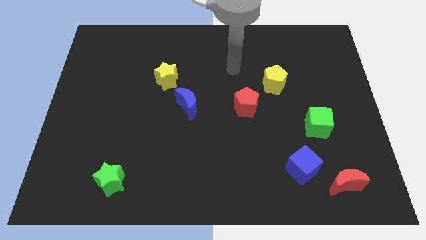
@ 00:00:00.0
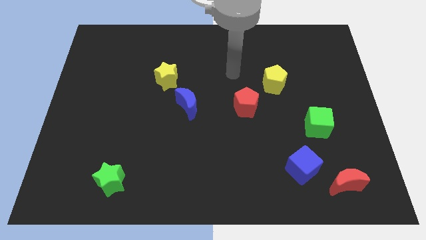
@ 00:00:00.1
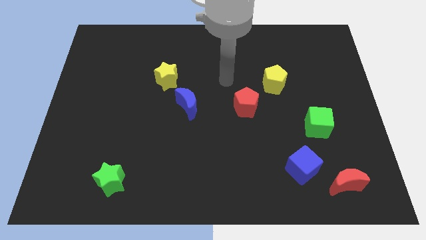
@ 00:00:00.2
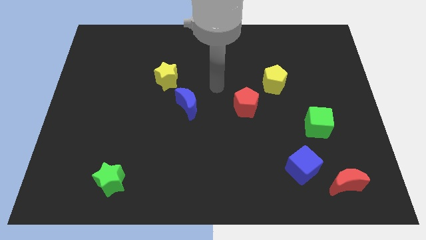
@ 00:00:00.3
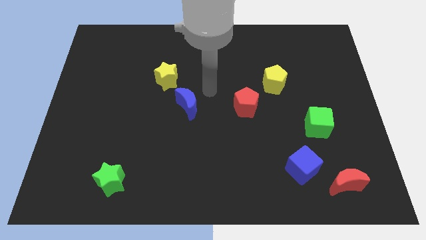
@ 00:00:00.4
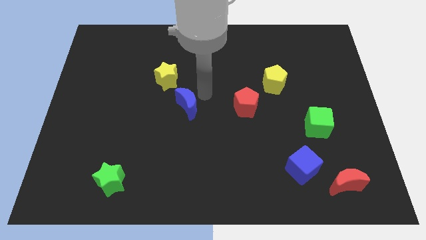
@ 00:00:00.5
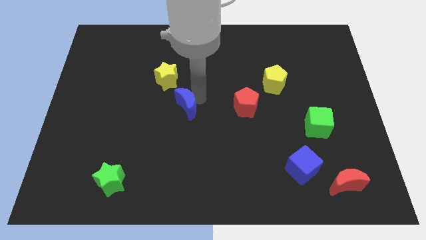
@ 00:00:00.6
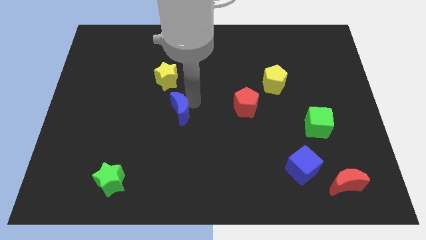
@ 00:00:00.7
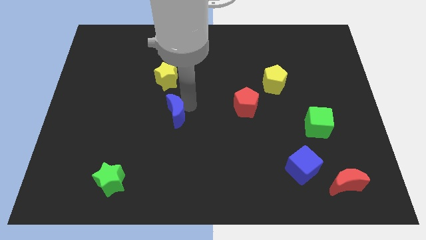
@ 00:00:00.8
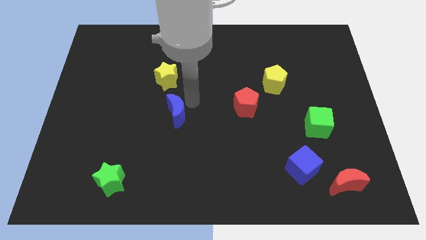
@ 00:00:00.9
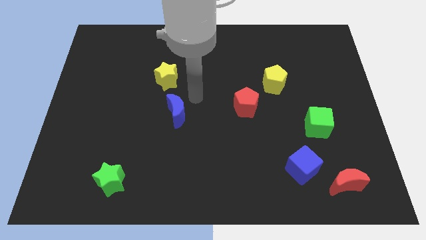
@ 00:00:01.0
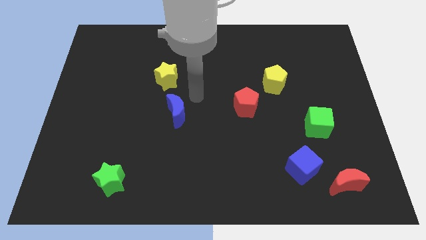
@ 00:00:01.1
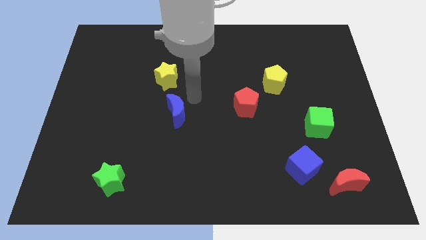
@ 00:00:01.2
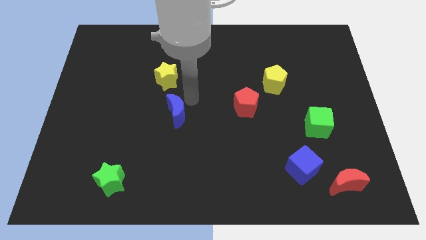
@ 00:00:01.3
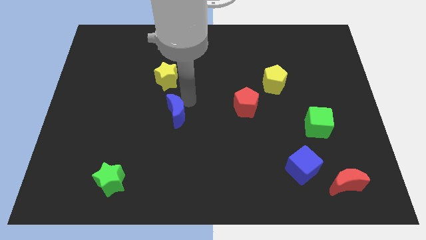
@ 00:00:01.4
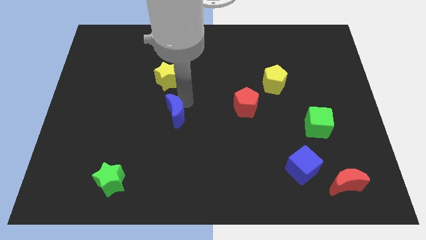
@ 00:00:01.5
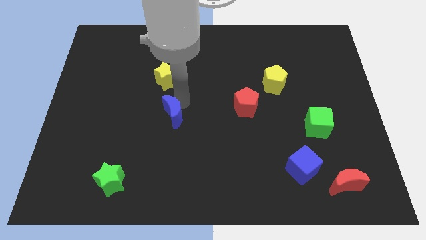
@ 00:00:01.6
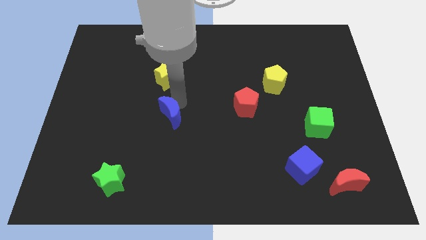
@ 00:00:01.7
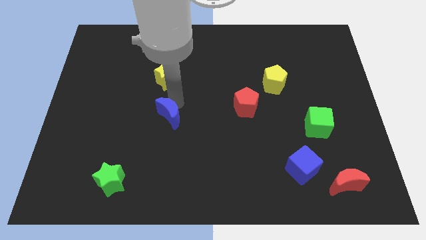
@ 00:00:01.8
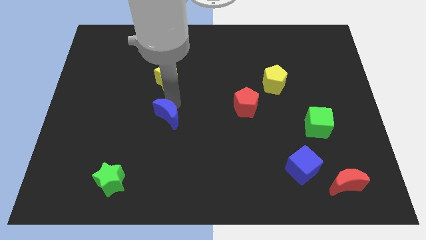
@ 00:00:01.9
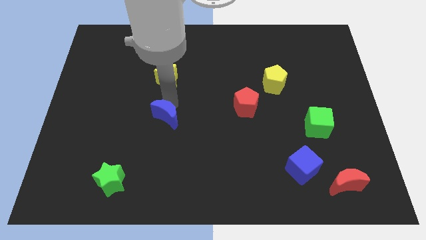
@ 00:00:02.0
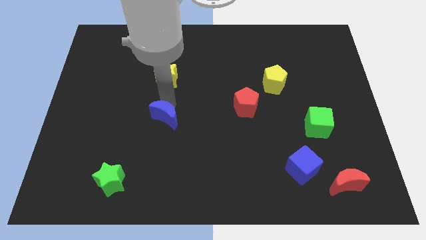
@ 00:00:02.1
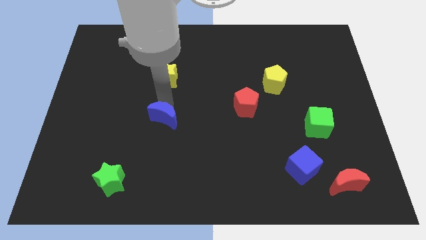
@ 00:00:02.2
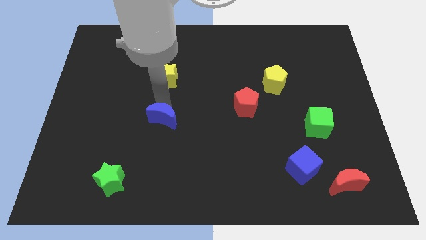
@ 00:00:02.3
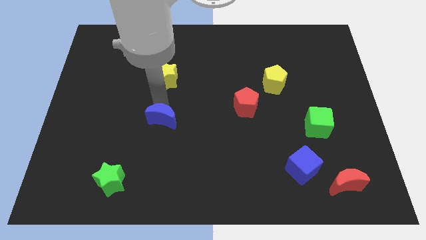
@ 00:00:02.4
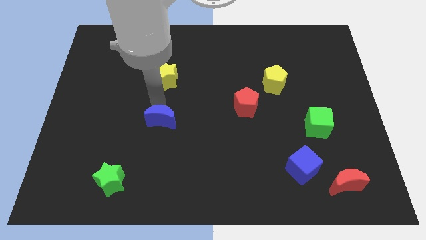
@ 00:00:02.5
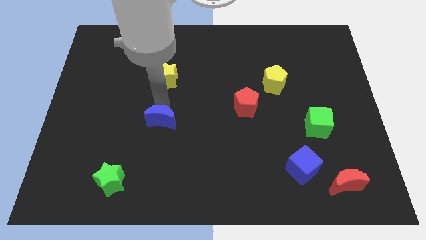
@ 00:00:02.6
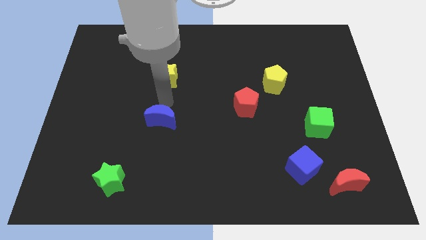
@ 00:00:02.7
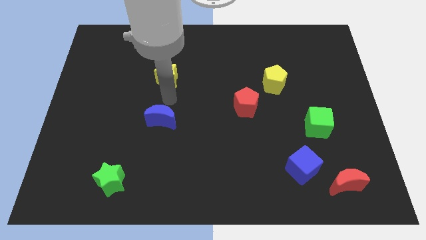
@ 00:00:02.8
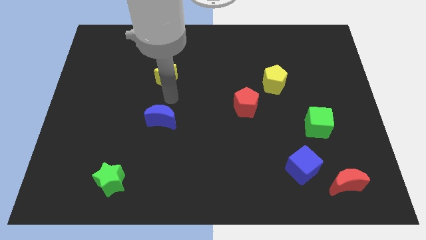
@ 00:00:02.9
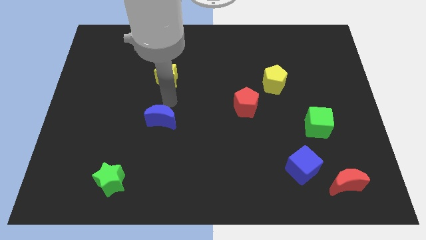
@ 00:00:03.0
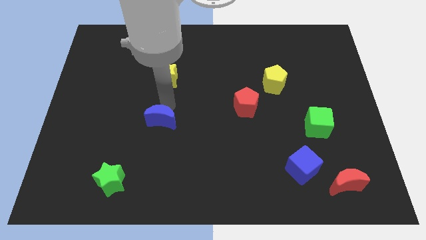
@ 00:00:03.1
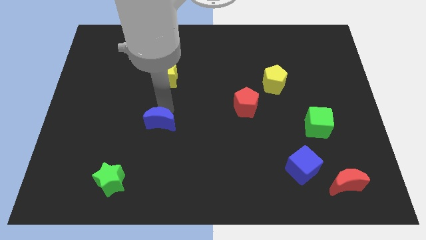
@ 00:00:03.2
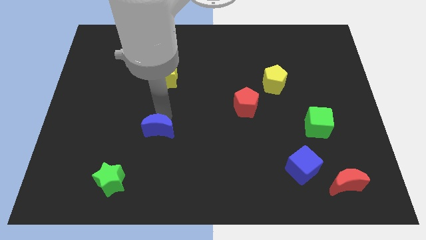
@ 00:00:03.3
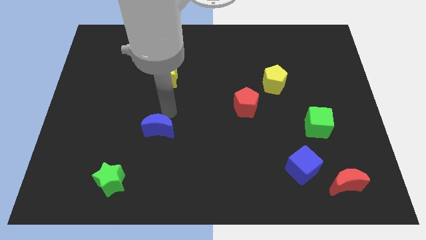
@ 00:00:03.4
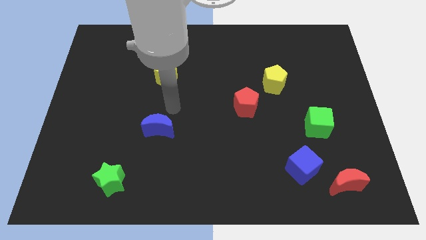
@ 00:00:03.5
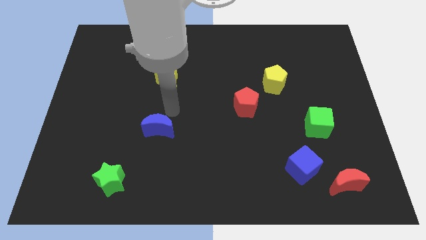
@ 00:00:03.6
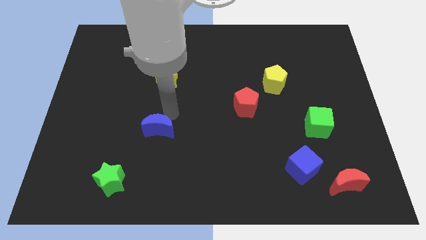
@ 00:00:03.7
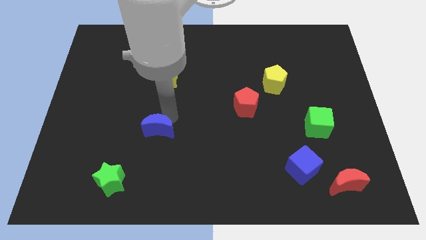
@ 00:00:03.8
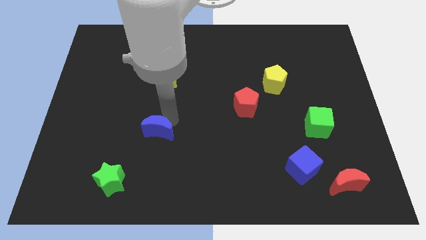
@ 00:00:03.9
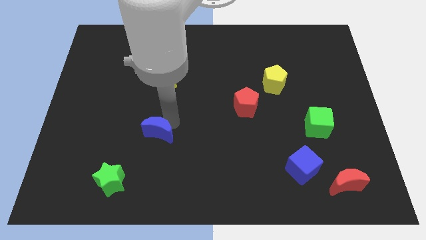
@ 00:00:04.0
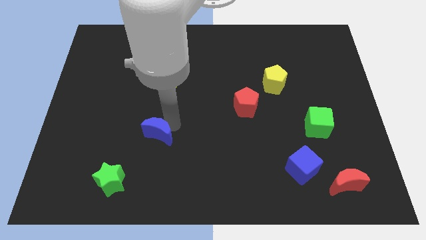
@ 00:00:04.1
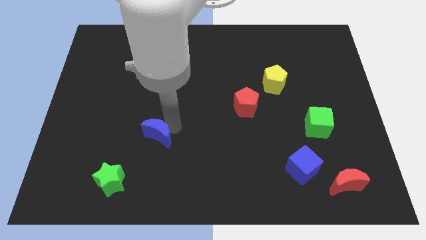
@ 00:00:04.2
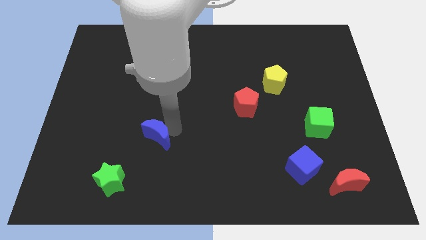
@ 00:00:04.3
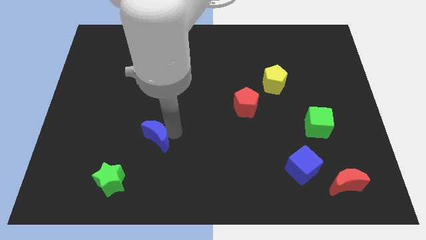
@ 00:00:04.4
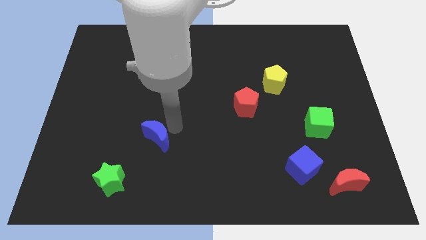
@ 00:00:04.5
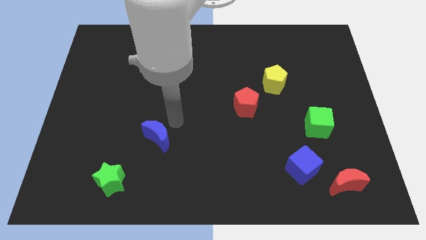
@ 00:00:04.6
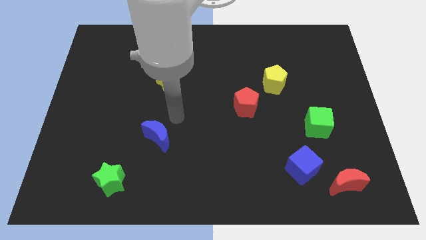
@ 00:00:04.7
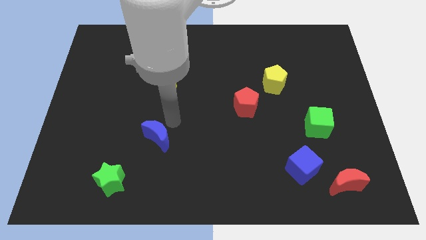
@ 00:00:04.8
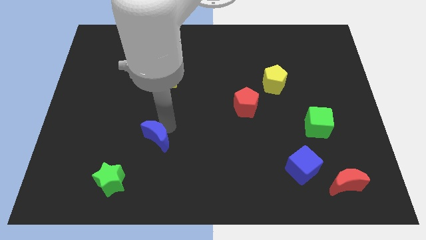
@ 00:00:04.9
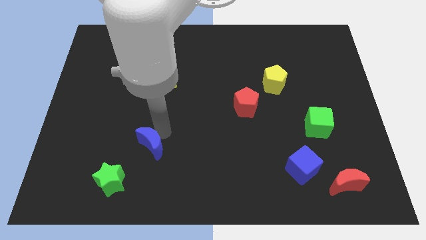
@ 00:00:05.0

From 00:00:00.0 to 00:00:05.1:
put the blue moon to the top right side of the green star

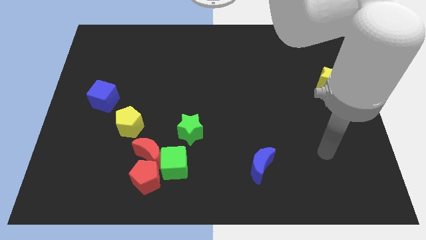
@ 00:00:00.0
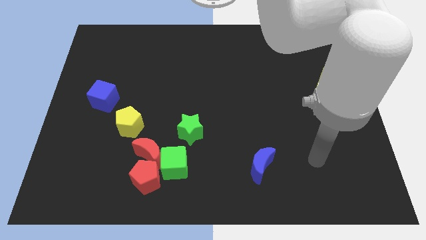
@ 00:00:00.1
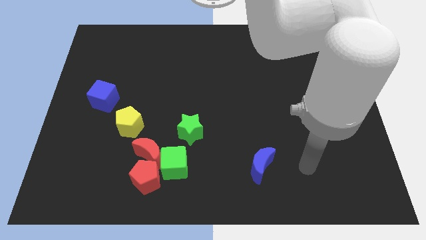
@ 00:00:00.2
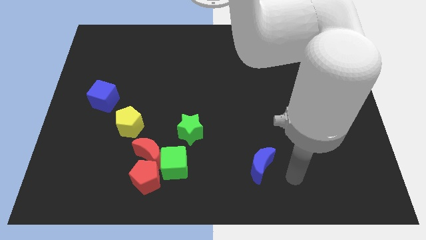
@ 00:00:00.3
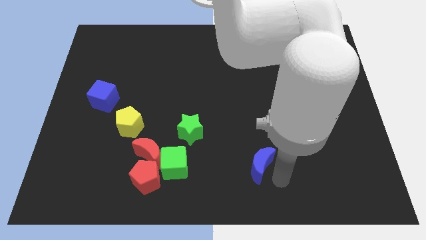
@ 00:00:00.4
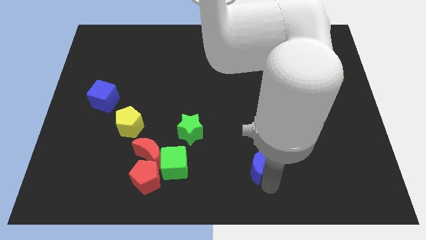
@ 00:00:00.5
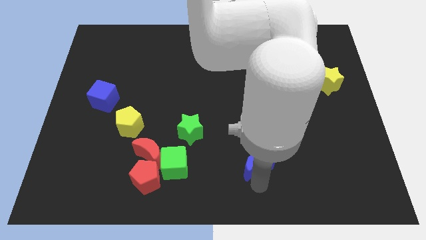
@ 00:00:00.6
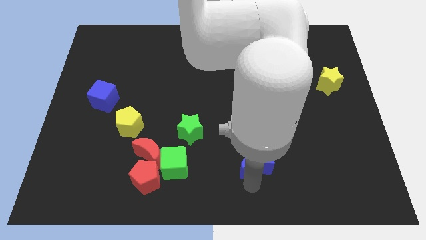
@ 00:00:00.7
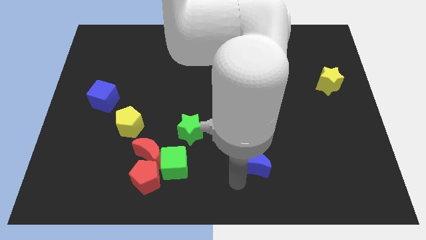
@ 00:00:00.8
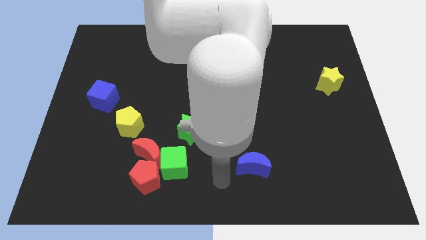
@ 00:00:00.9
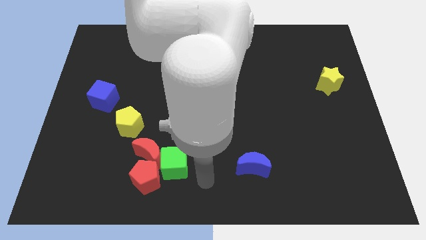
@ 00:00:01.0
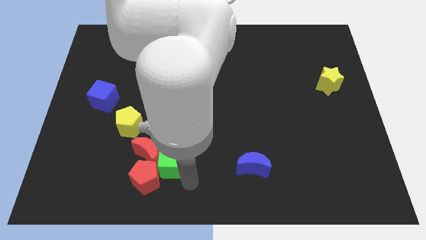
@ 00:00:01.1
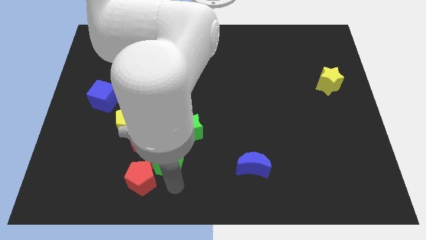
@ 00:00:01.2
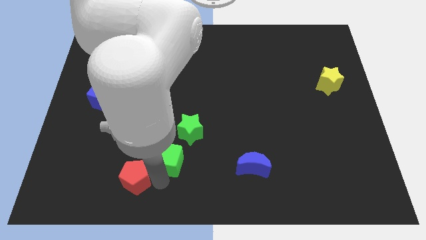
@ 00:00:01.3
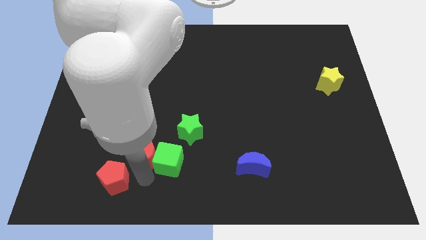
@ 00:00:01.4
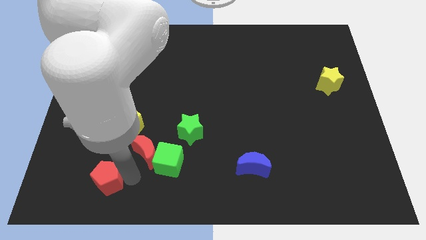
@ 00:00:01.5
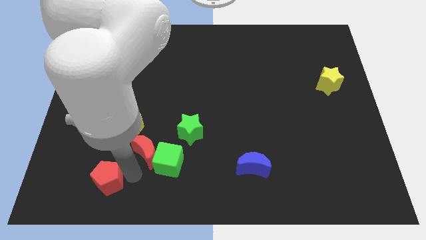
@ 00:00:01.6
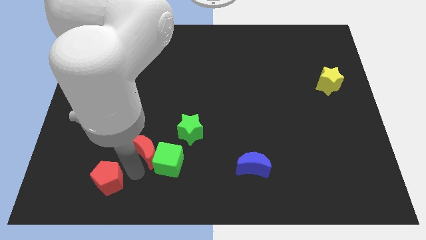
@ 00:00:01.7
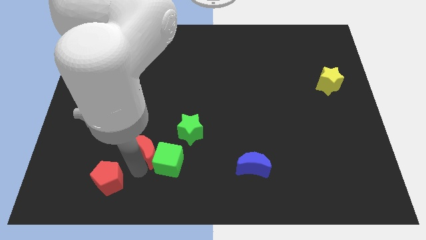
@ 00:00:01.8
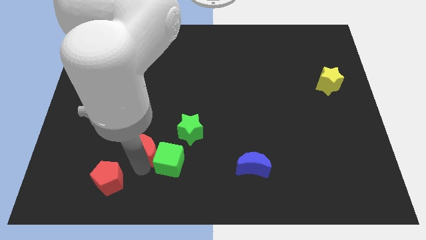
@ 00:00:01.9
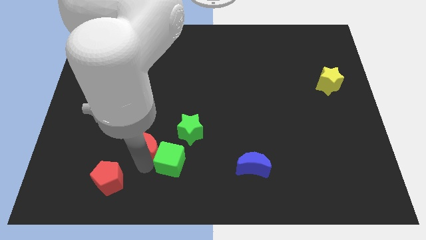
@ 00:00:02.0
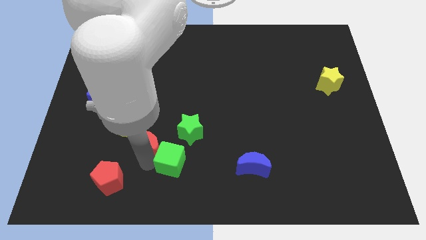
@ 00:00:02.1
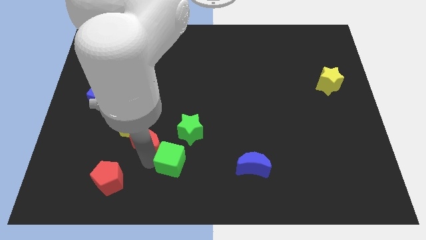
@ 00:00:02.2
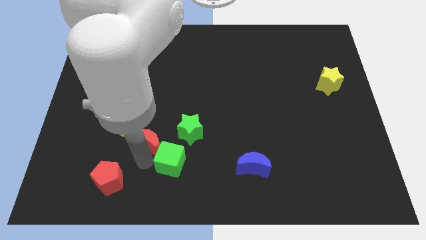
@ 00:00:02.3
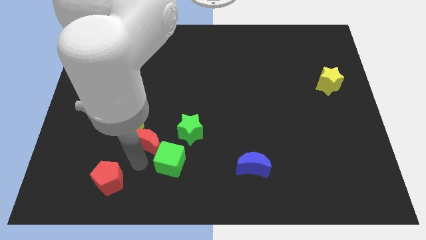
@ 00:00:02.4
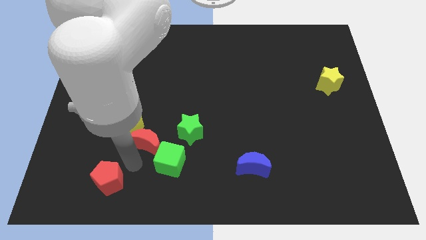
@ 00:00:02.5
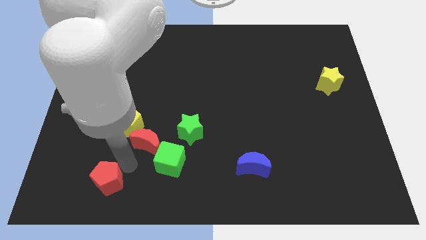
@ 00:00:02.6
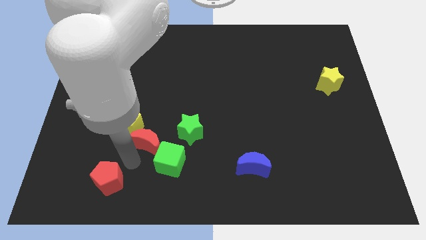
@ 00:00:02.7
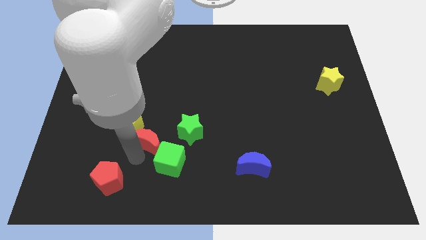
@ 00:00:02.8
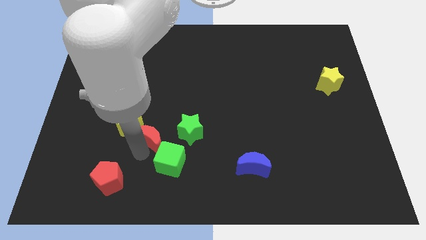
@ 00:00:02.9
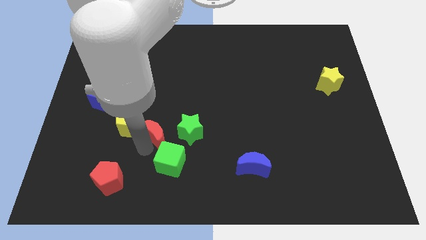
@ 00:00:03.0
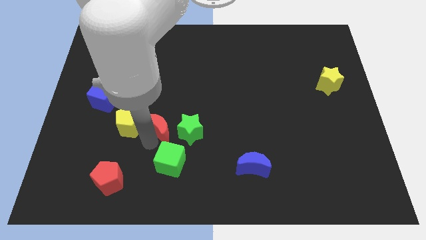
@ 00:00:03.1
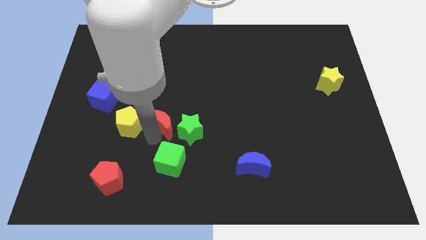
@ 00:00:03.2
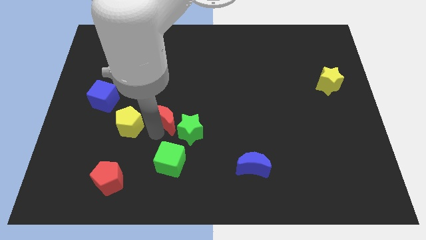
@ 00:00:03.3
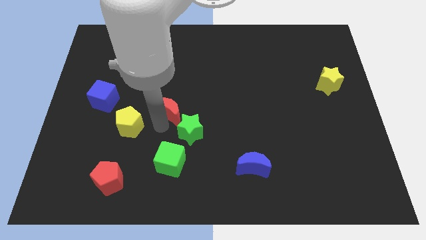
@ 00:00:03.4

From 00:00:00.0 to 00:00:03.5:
put the red moon to the top of the green star
